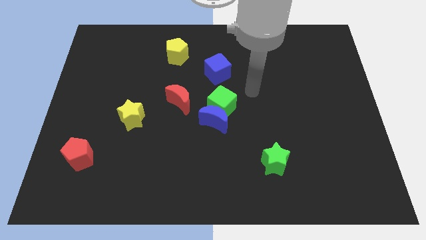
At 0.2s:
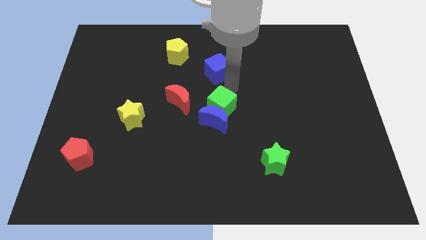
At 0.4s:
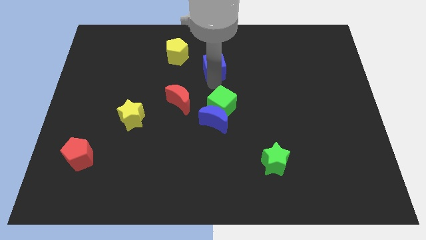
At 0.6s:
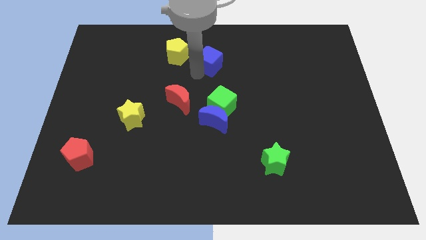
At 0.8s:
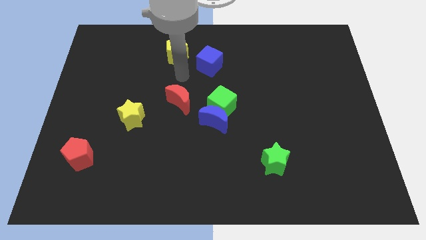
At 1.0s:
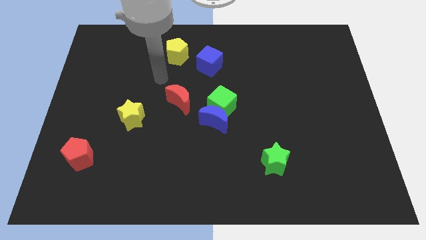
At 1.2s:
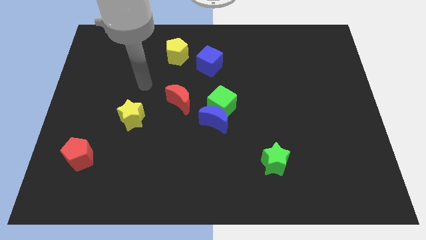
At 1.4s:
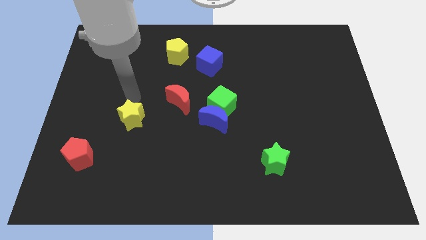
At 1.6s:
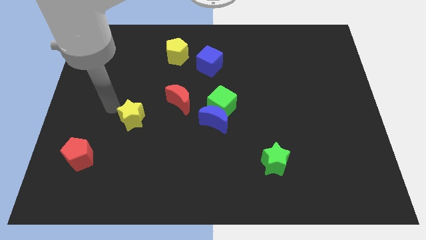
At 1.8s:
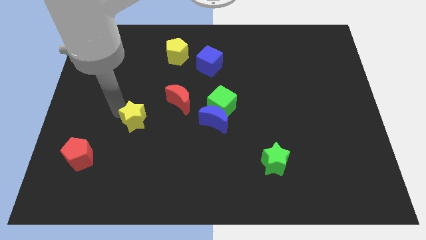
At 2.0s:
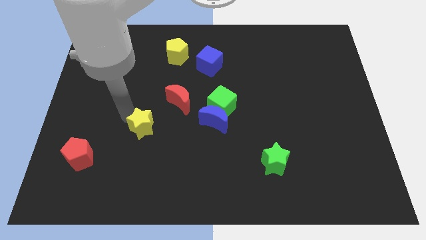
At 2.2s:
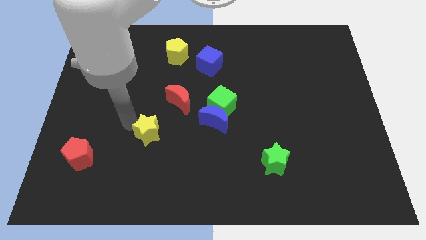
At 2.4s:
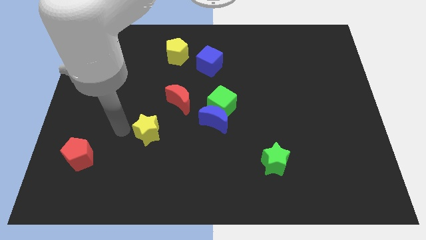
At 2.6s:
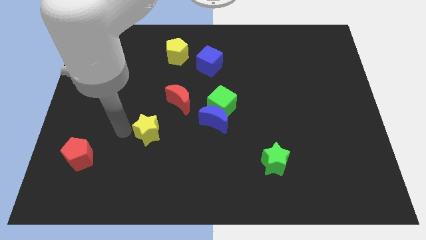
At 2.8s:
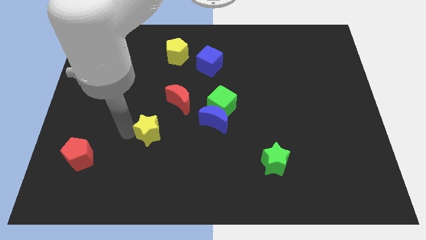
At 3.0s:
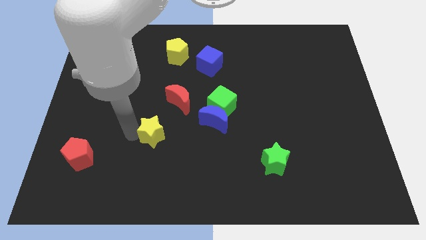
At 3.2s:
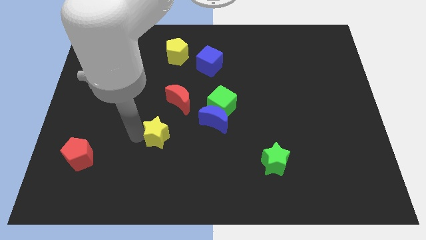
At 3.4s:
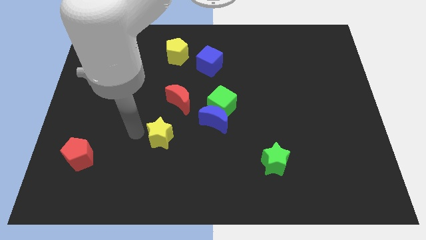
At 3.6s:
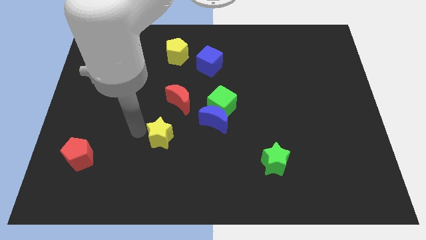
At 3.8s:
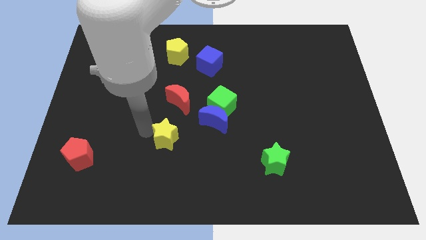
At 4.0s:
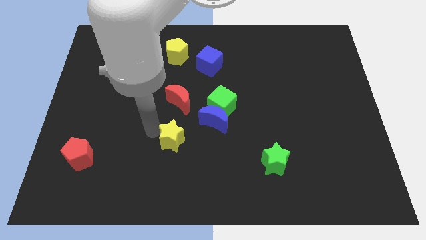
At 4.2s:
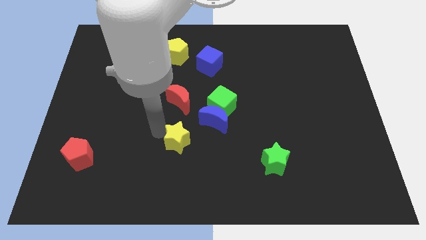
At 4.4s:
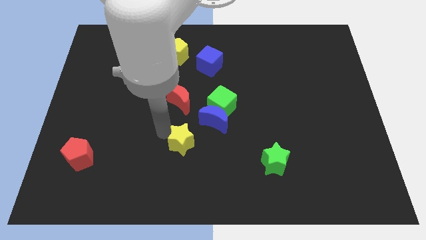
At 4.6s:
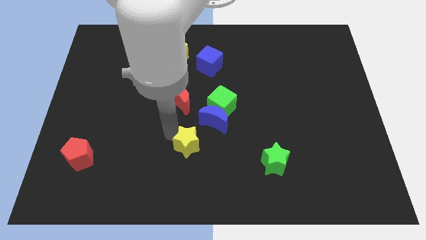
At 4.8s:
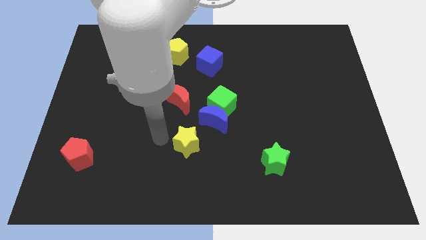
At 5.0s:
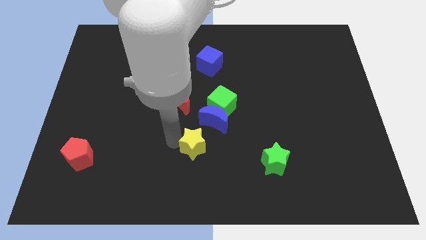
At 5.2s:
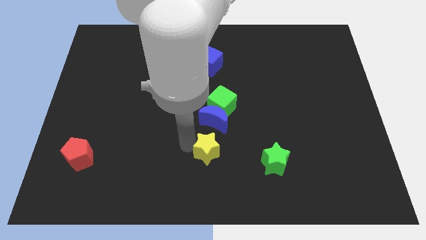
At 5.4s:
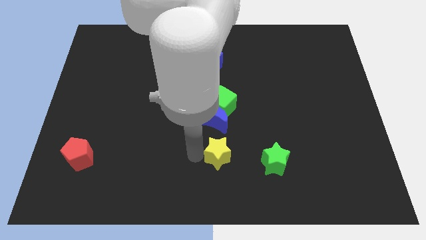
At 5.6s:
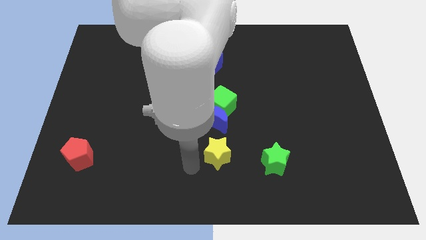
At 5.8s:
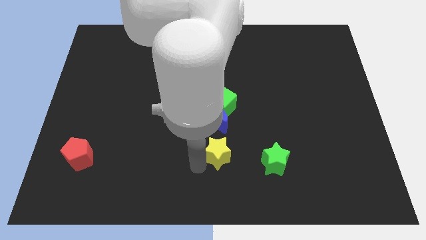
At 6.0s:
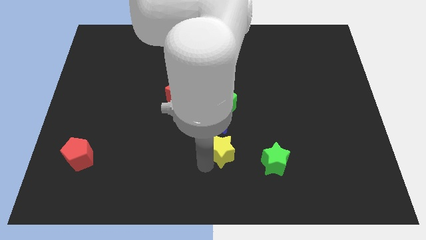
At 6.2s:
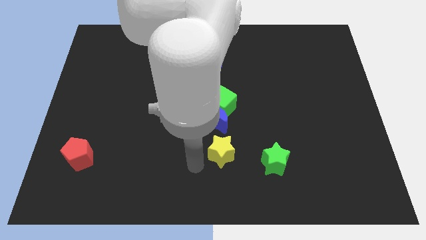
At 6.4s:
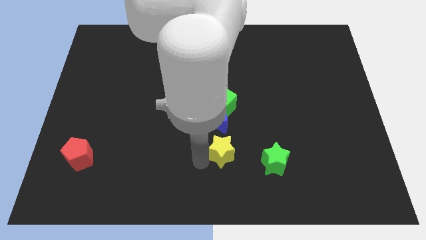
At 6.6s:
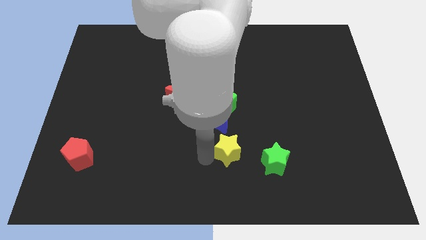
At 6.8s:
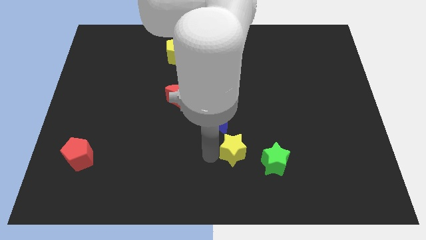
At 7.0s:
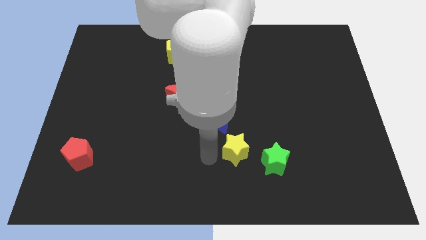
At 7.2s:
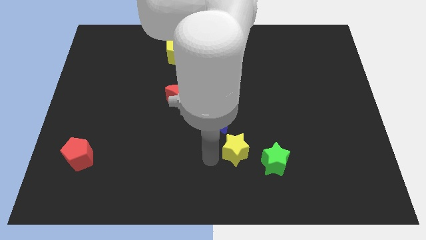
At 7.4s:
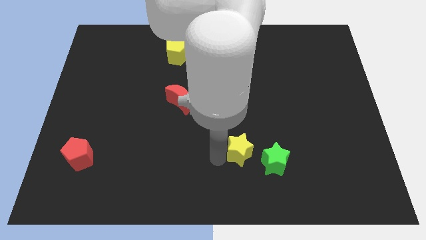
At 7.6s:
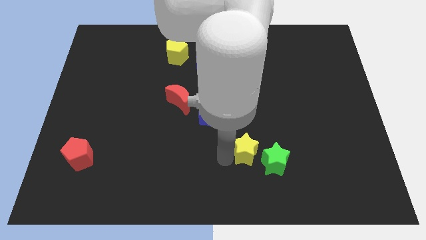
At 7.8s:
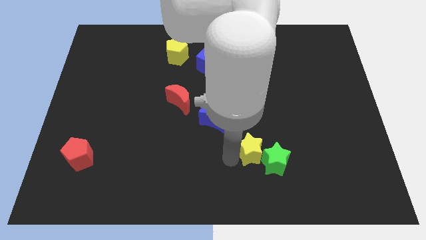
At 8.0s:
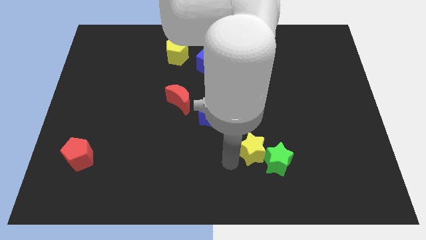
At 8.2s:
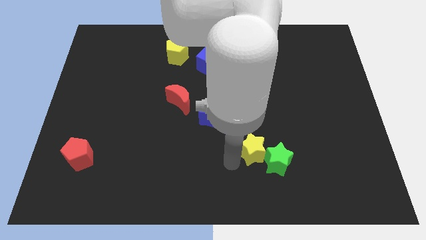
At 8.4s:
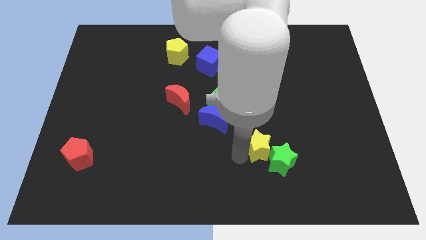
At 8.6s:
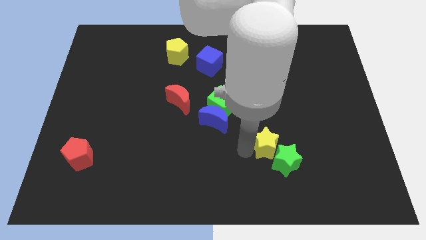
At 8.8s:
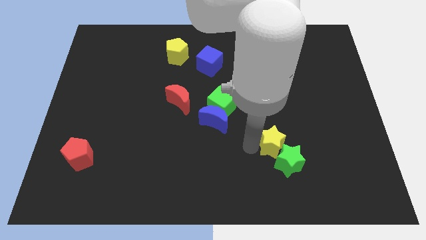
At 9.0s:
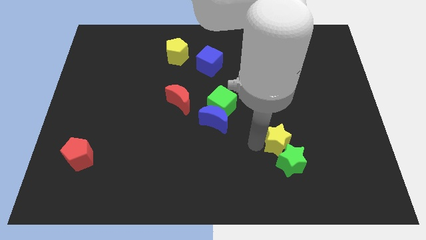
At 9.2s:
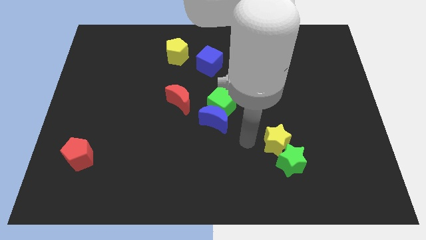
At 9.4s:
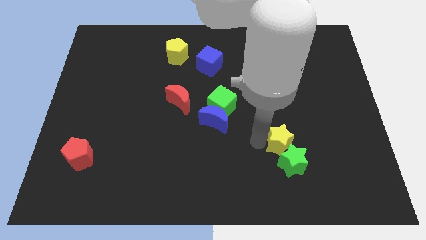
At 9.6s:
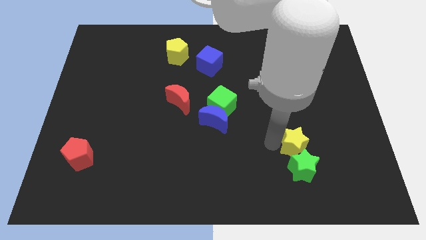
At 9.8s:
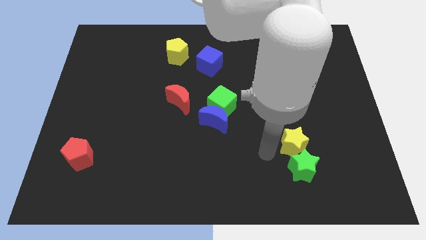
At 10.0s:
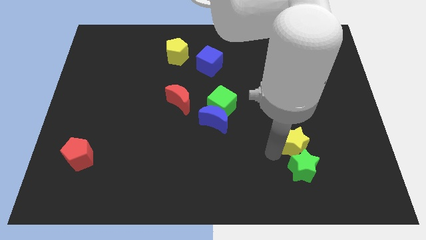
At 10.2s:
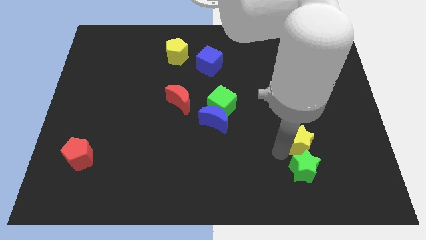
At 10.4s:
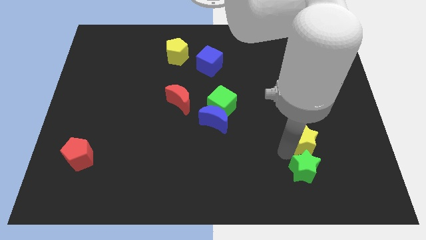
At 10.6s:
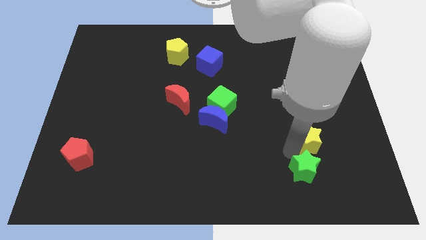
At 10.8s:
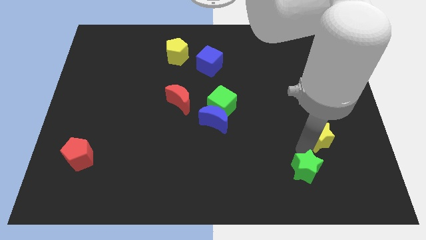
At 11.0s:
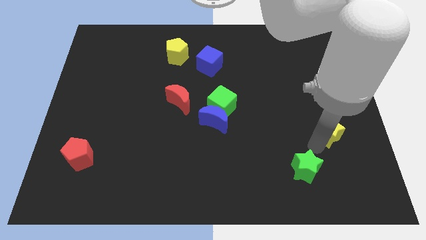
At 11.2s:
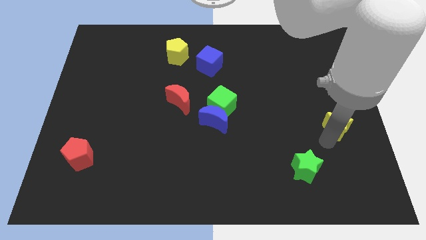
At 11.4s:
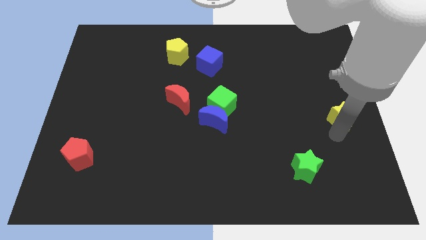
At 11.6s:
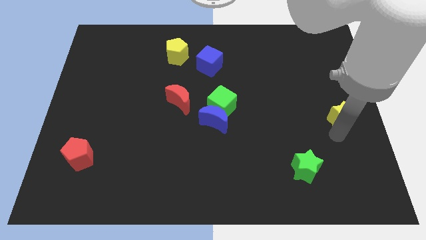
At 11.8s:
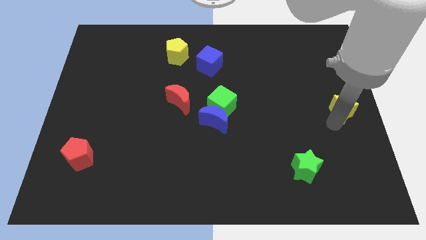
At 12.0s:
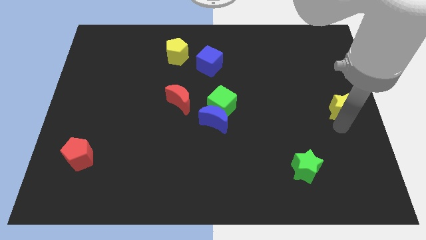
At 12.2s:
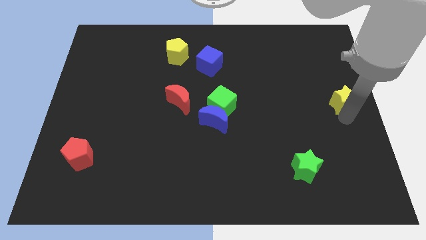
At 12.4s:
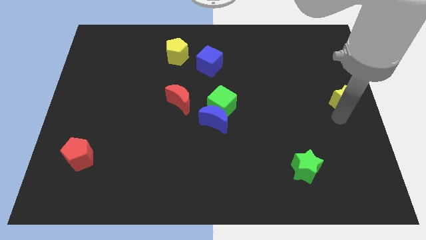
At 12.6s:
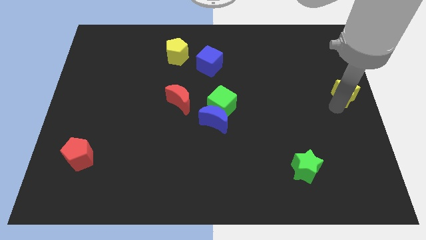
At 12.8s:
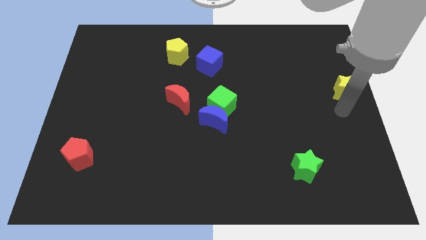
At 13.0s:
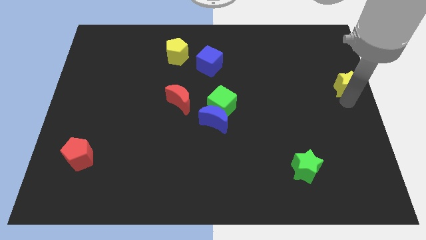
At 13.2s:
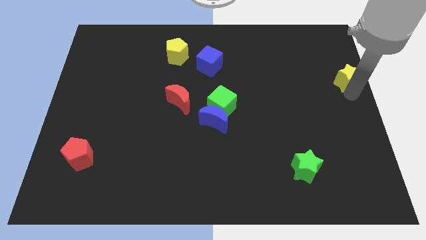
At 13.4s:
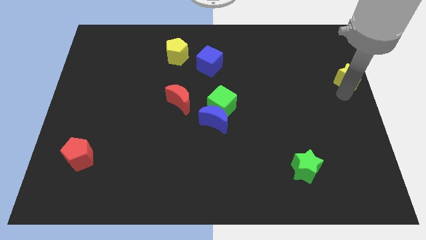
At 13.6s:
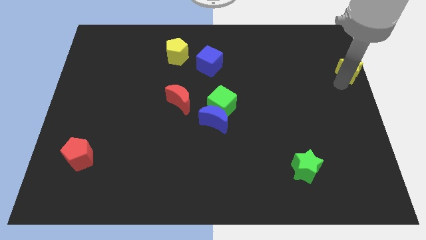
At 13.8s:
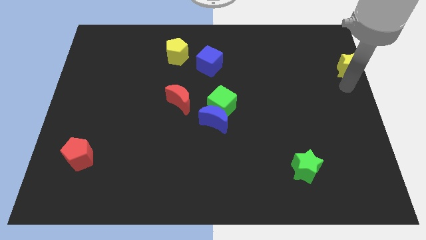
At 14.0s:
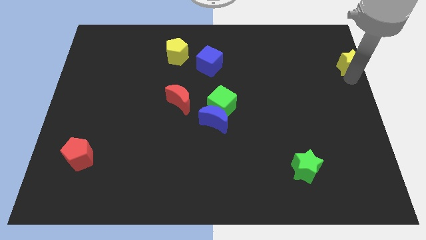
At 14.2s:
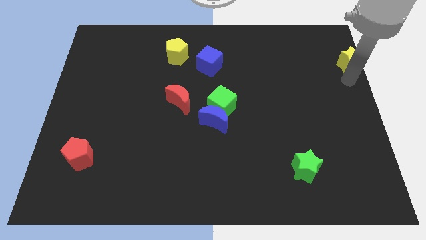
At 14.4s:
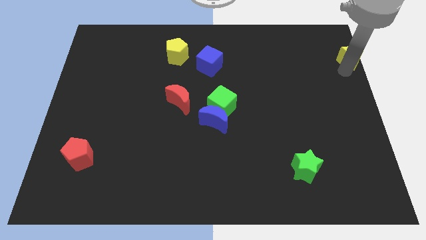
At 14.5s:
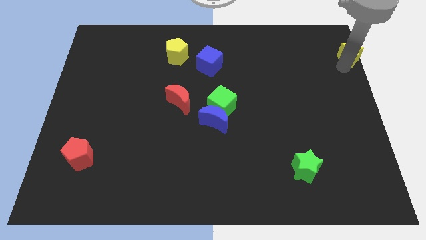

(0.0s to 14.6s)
slide the yellow star to the top right of the board
